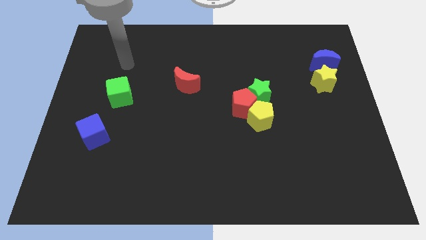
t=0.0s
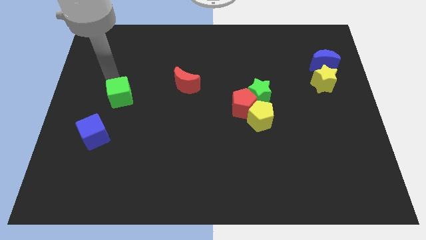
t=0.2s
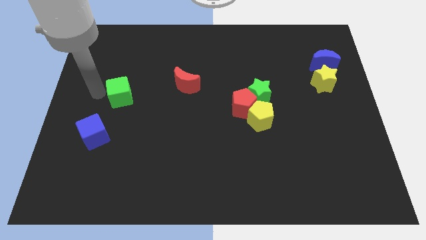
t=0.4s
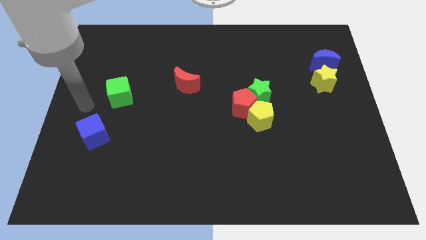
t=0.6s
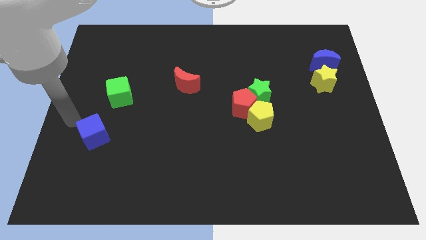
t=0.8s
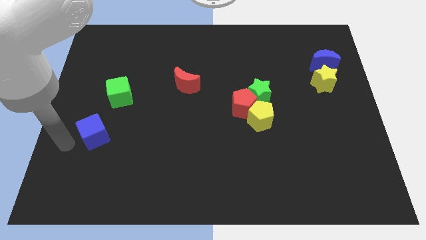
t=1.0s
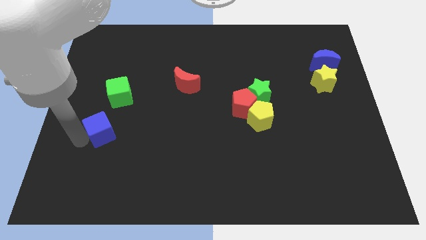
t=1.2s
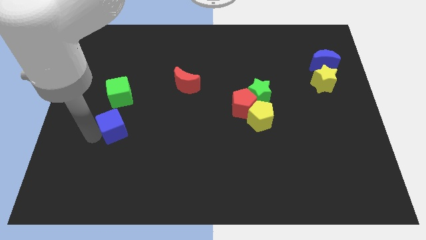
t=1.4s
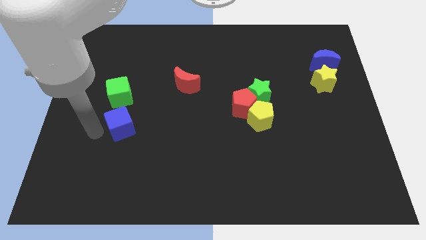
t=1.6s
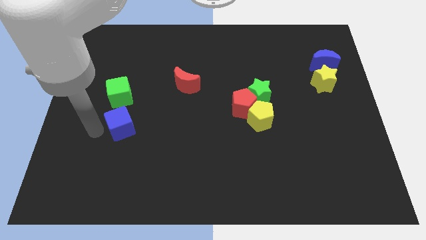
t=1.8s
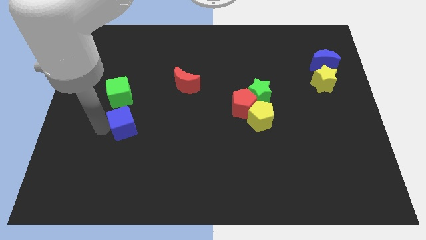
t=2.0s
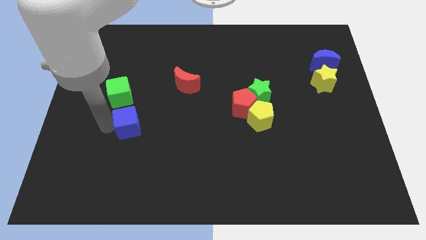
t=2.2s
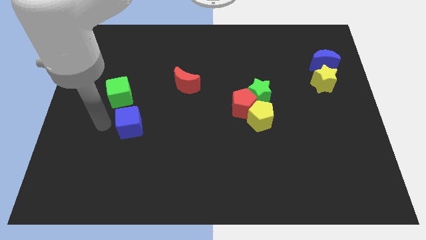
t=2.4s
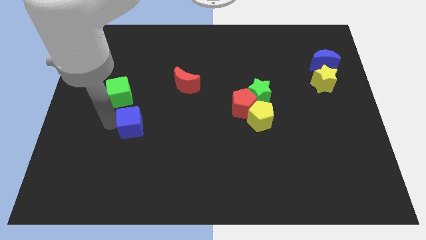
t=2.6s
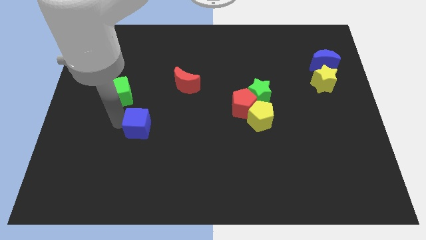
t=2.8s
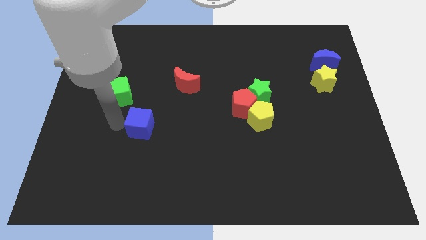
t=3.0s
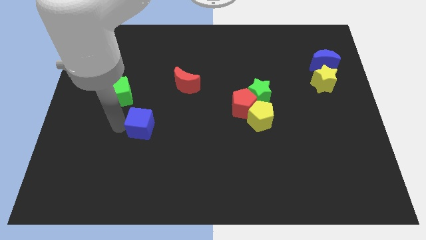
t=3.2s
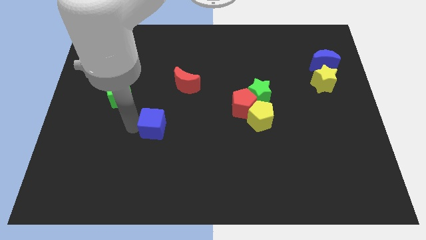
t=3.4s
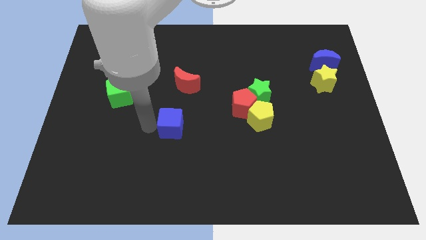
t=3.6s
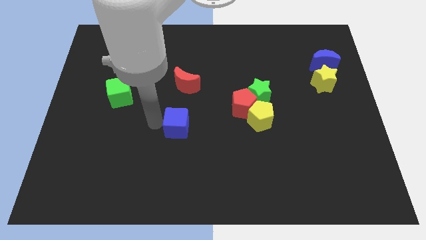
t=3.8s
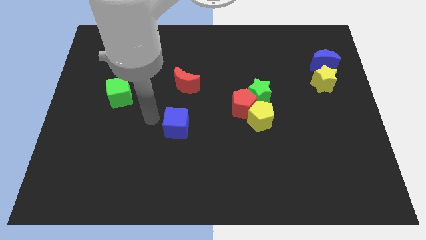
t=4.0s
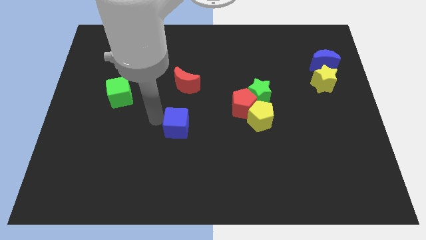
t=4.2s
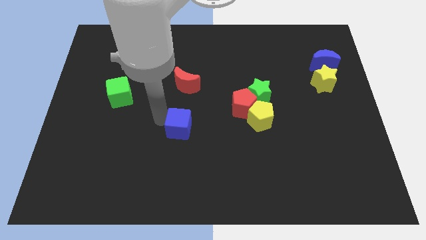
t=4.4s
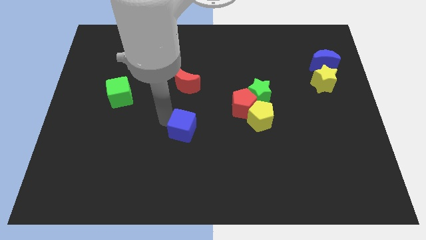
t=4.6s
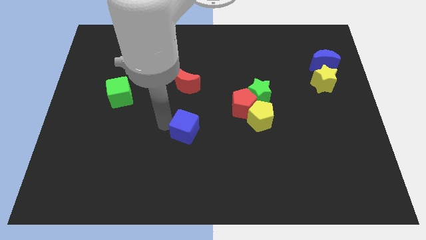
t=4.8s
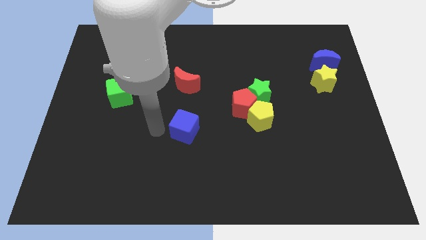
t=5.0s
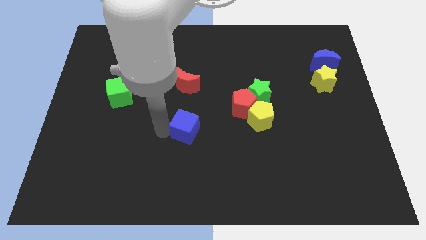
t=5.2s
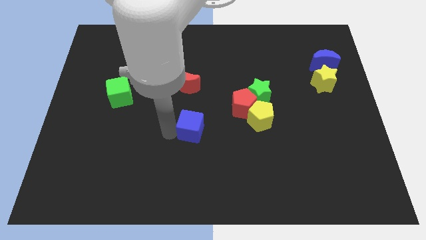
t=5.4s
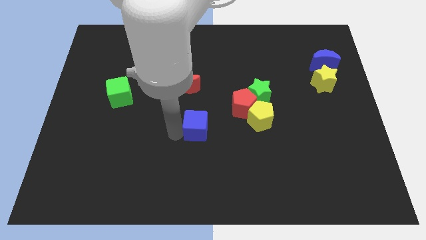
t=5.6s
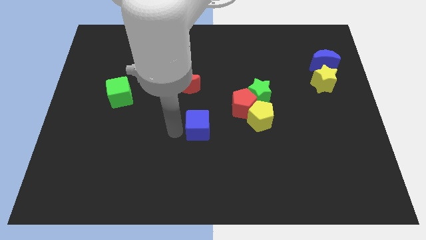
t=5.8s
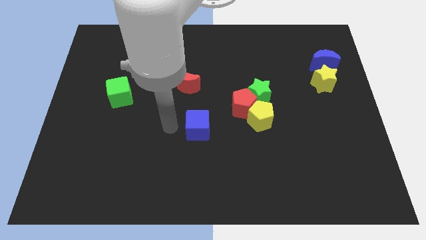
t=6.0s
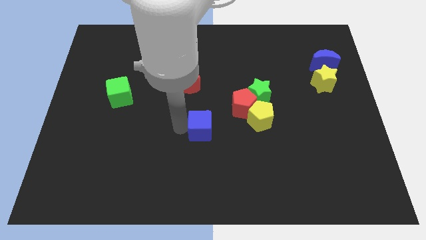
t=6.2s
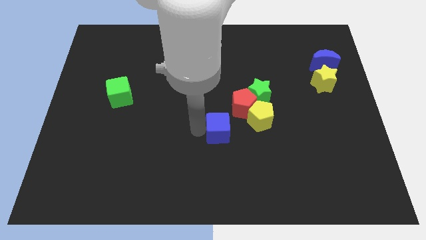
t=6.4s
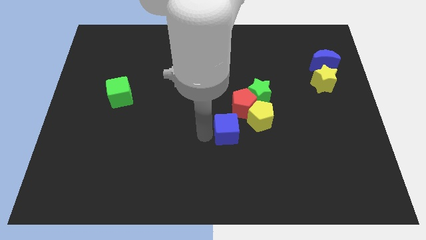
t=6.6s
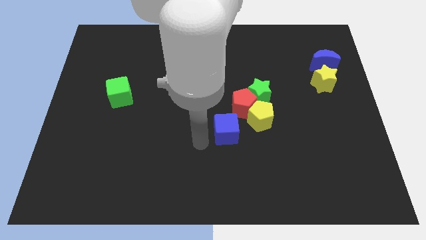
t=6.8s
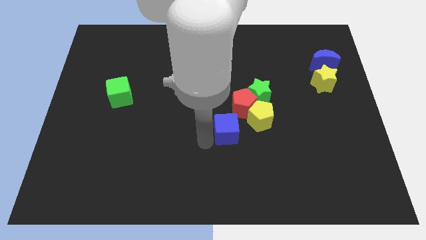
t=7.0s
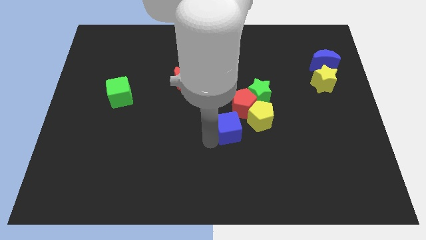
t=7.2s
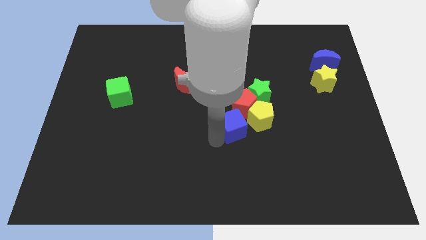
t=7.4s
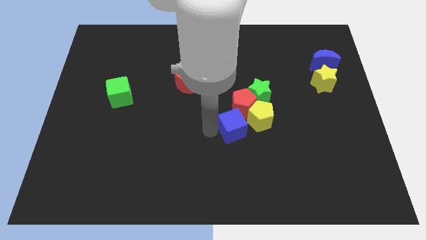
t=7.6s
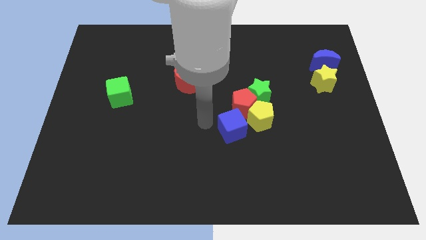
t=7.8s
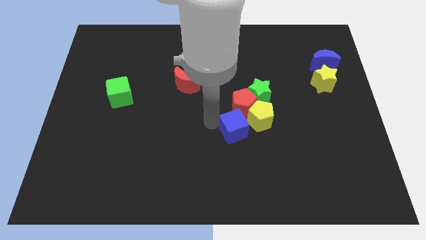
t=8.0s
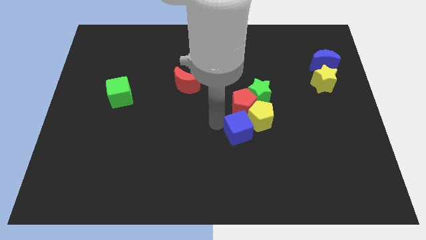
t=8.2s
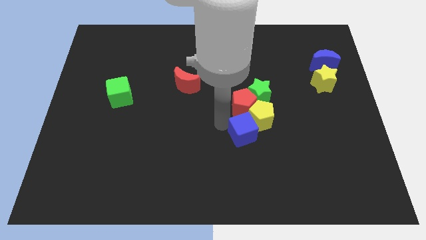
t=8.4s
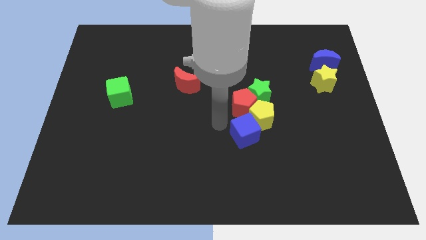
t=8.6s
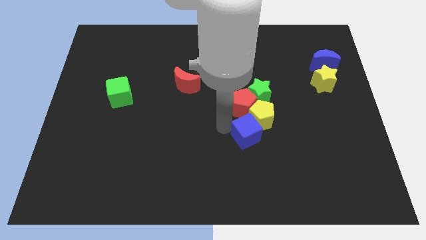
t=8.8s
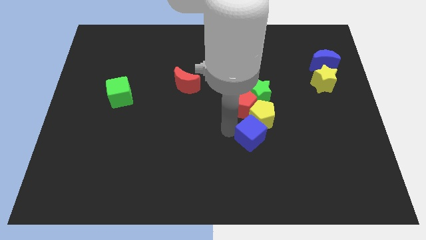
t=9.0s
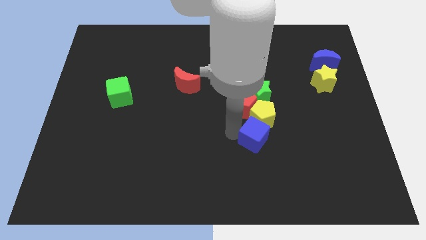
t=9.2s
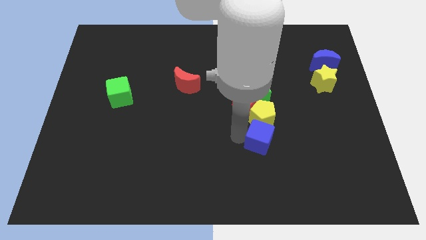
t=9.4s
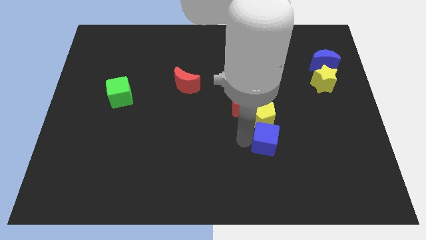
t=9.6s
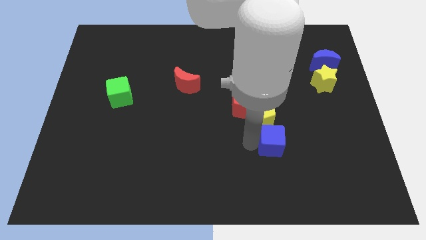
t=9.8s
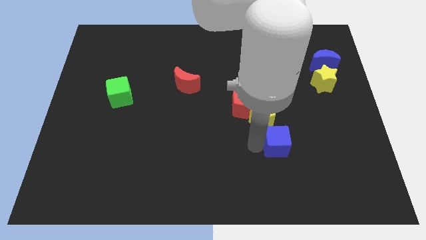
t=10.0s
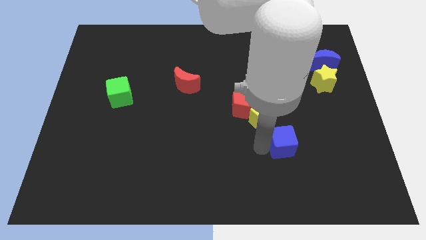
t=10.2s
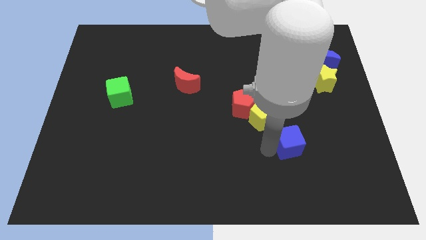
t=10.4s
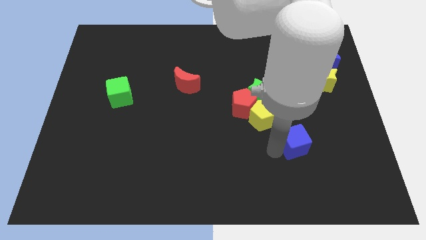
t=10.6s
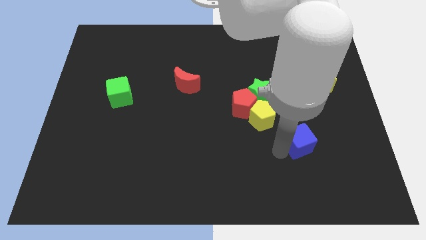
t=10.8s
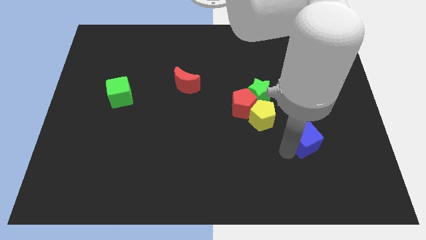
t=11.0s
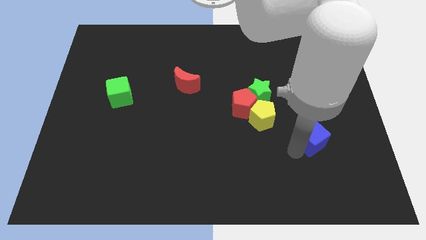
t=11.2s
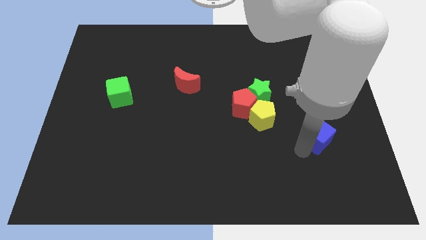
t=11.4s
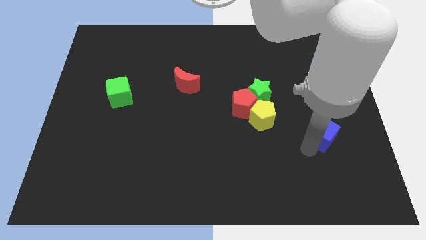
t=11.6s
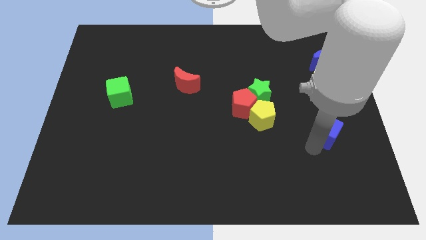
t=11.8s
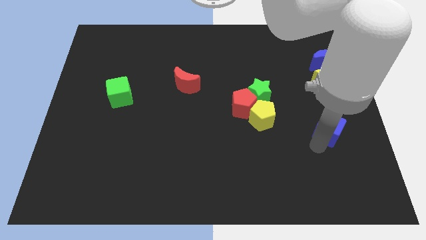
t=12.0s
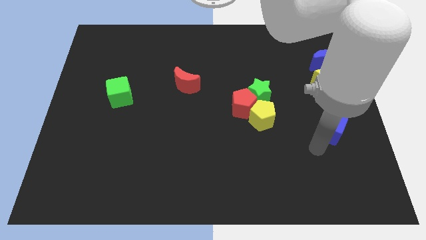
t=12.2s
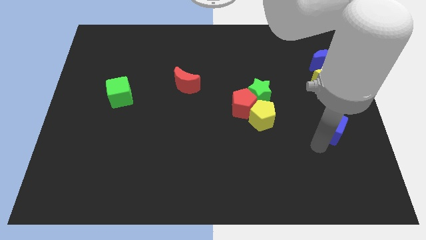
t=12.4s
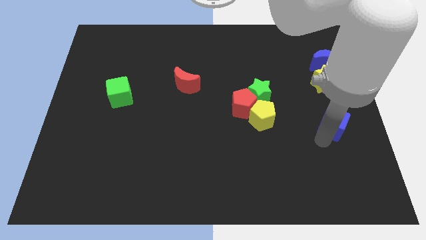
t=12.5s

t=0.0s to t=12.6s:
move the blue cube to the right side

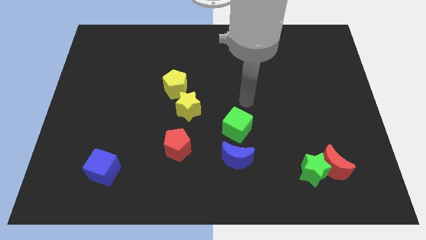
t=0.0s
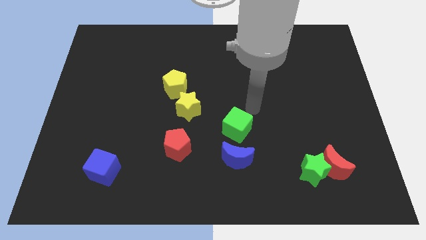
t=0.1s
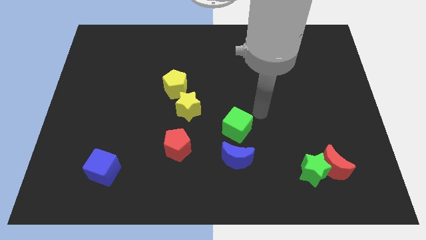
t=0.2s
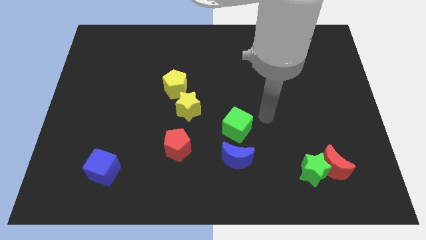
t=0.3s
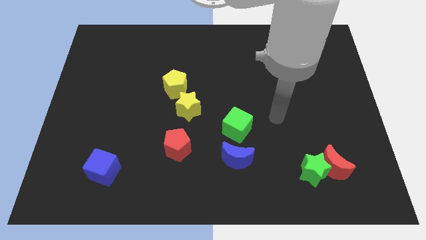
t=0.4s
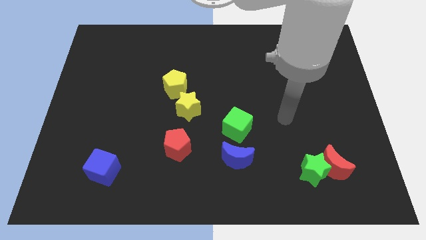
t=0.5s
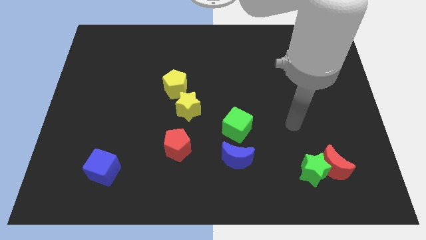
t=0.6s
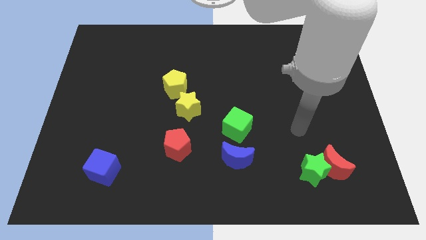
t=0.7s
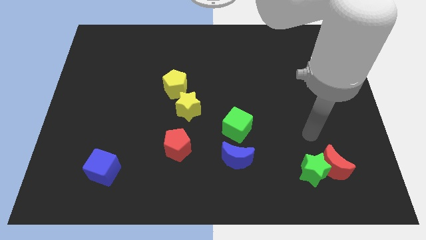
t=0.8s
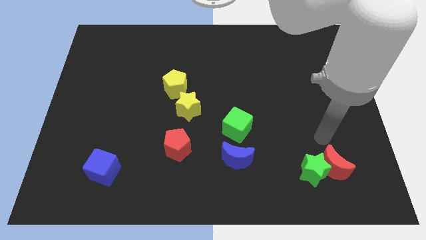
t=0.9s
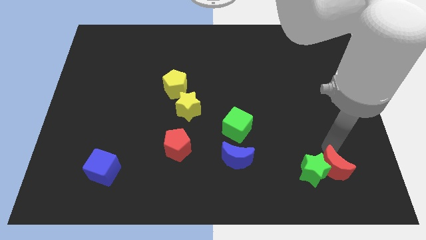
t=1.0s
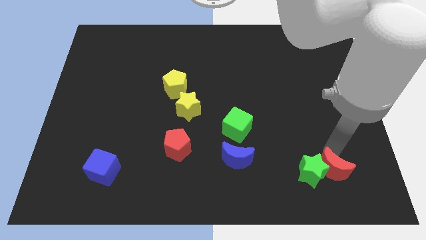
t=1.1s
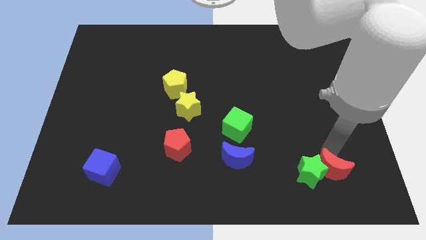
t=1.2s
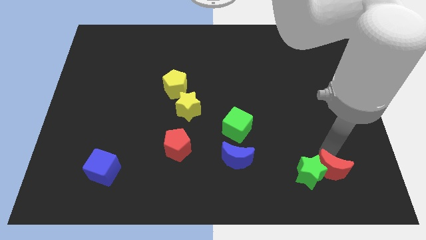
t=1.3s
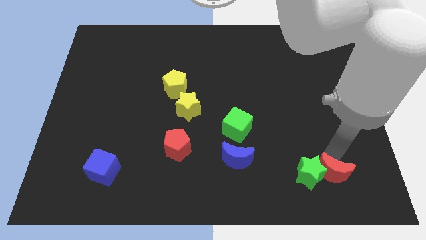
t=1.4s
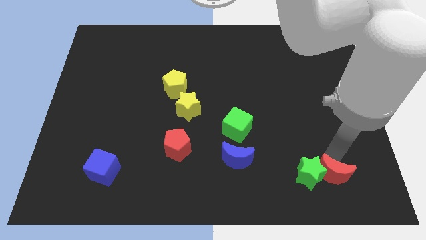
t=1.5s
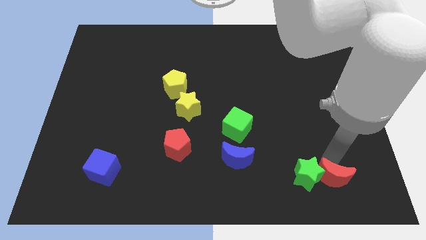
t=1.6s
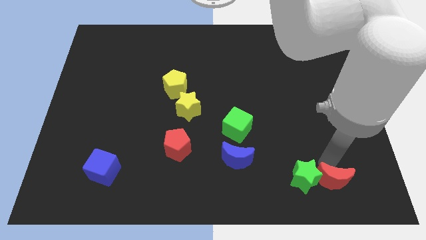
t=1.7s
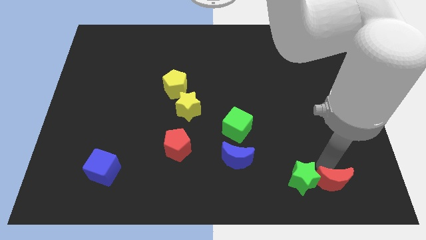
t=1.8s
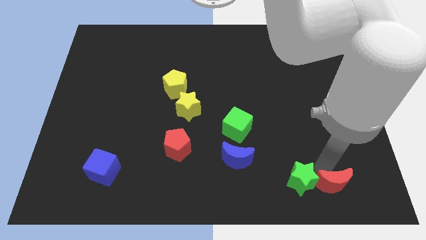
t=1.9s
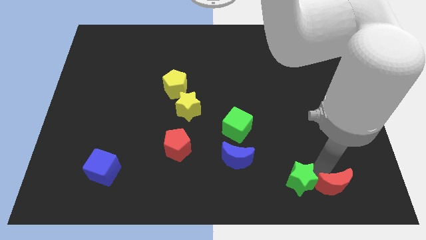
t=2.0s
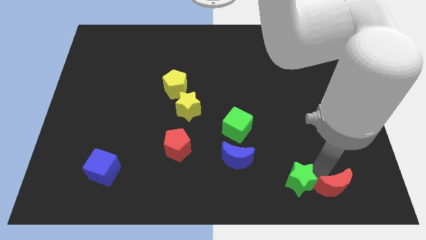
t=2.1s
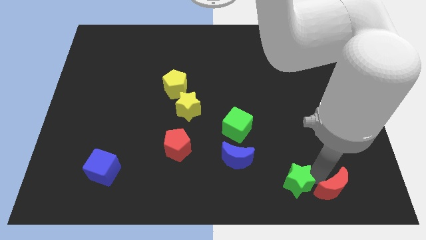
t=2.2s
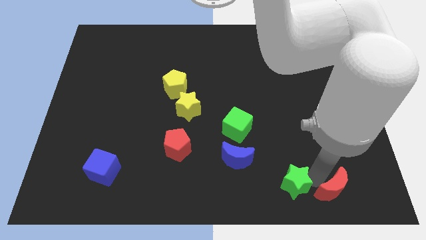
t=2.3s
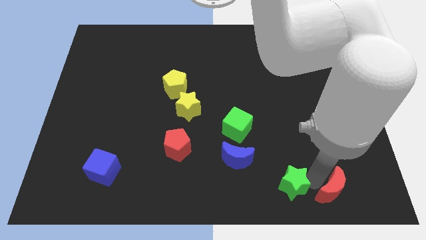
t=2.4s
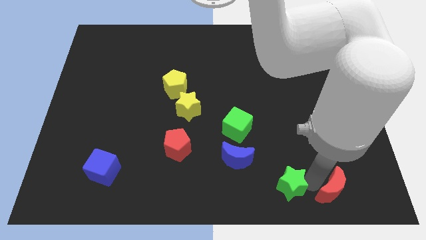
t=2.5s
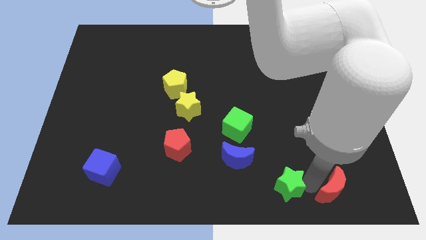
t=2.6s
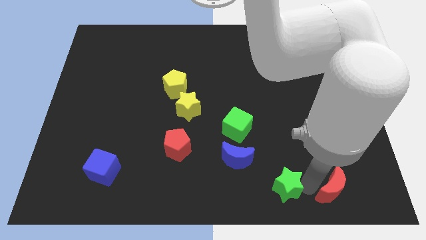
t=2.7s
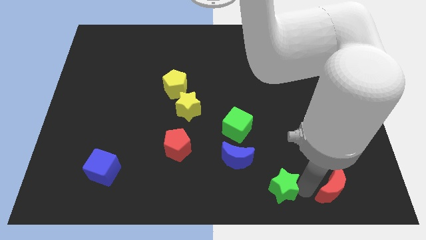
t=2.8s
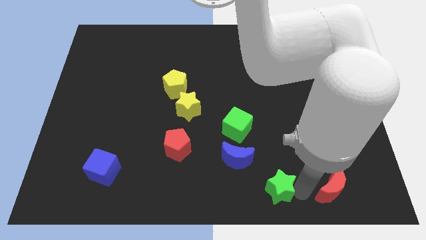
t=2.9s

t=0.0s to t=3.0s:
slide the green star to the bottom side
